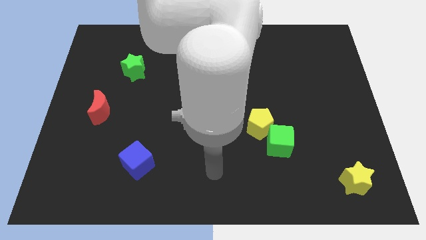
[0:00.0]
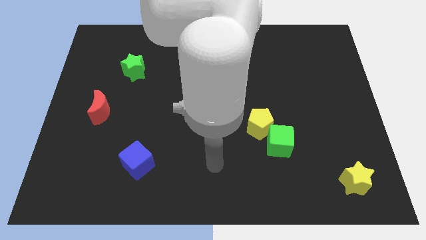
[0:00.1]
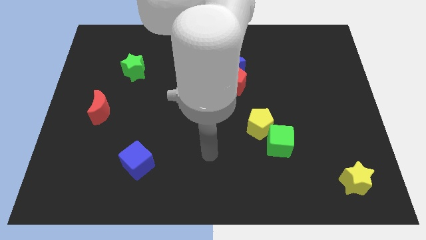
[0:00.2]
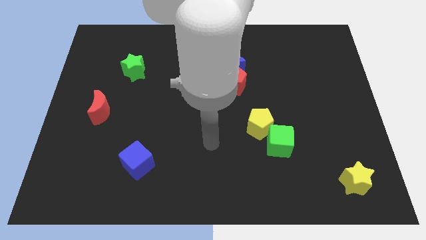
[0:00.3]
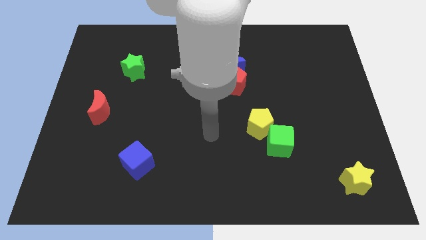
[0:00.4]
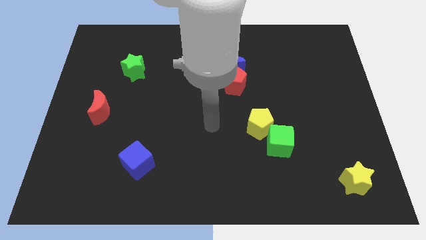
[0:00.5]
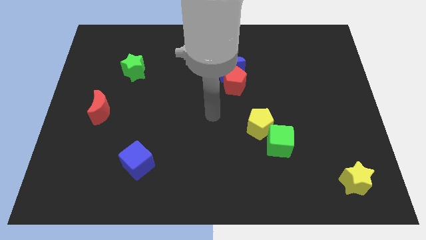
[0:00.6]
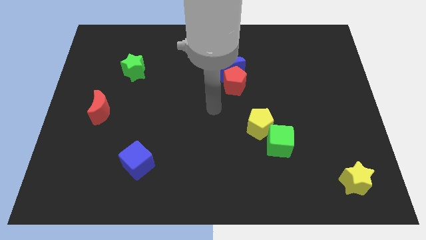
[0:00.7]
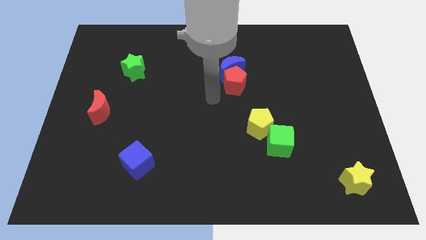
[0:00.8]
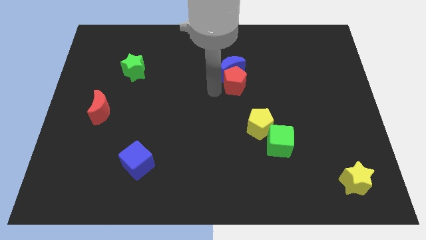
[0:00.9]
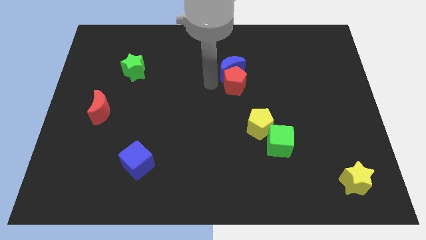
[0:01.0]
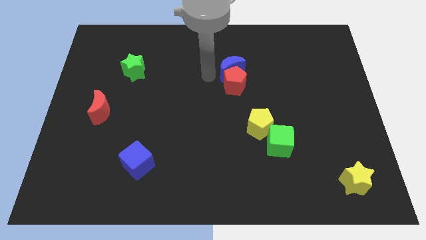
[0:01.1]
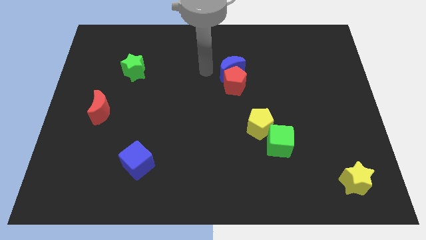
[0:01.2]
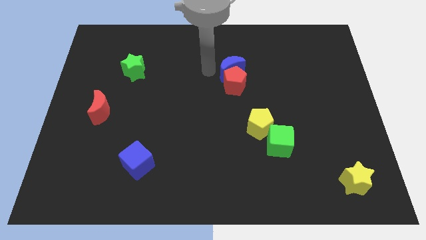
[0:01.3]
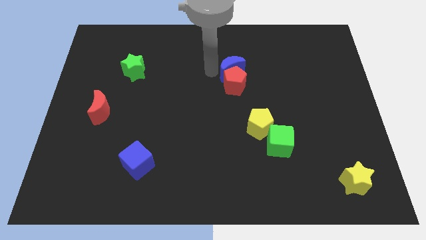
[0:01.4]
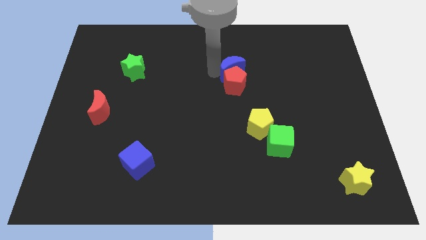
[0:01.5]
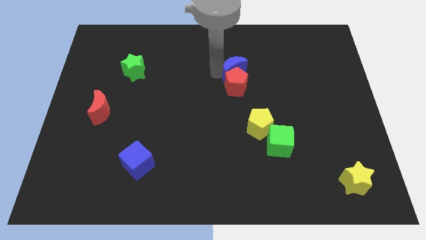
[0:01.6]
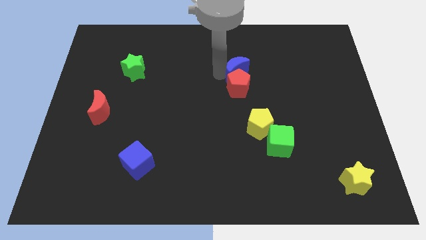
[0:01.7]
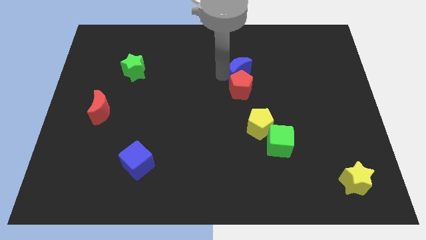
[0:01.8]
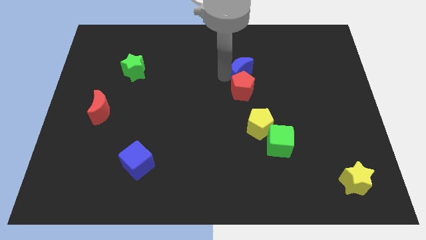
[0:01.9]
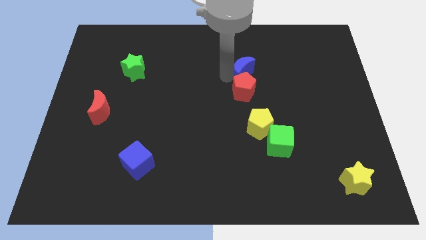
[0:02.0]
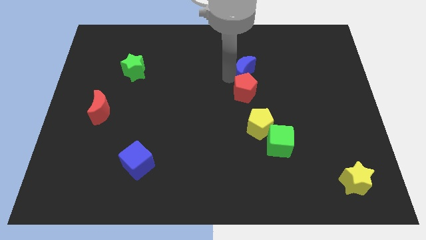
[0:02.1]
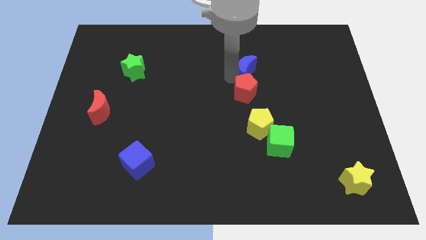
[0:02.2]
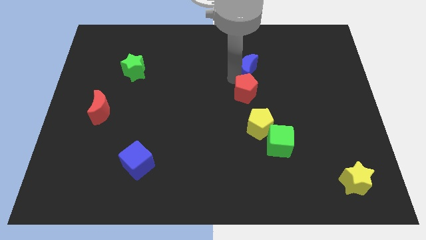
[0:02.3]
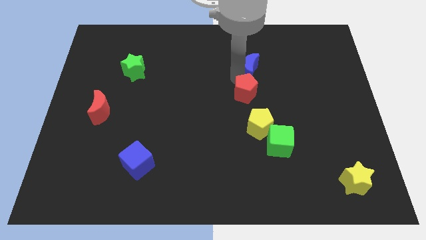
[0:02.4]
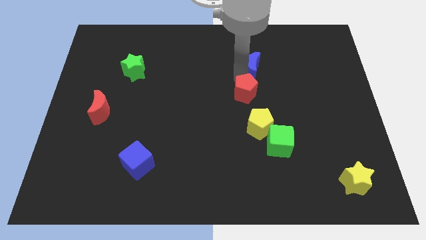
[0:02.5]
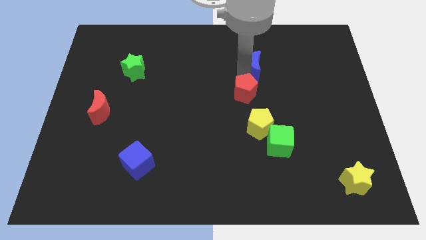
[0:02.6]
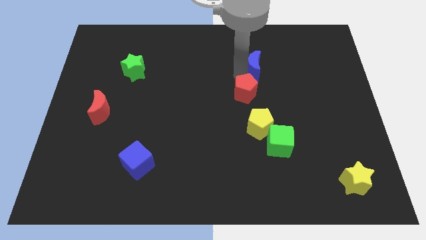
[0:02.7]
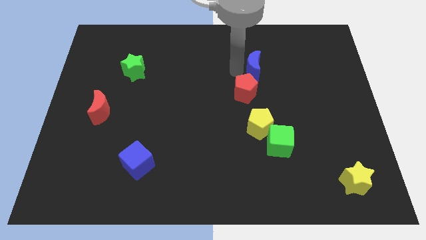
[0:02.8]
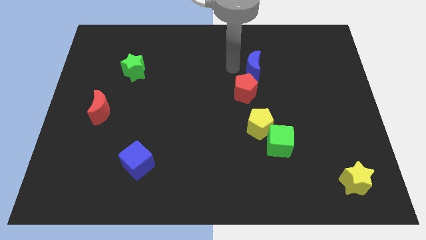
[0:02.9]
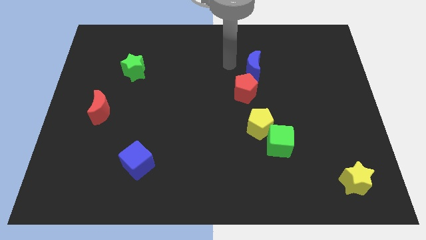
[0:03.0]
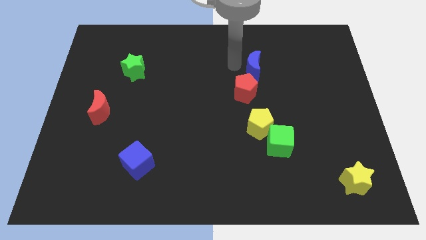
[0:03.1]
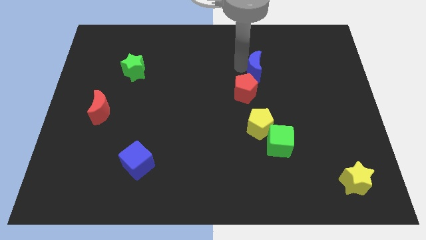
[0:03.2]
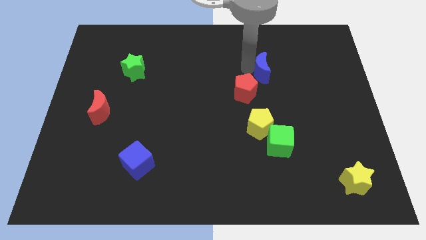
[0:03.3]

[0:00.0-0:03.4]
slightly move the blue moon right

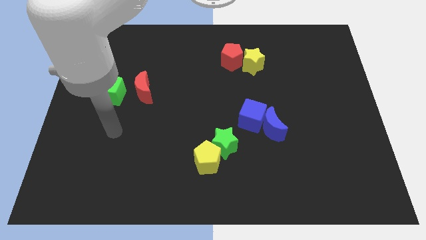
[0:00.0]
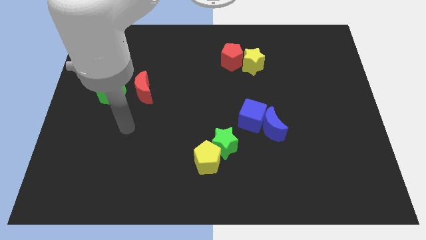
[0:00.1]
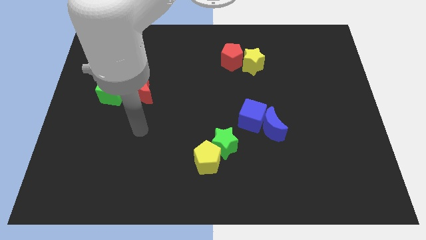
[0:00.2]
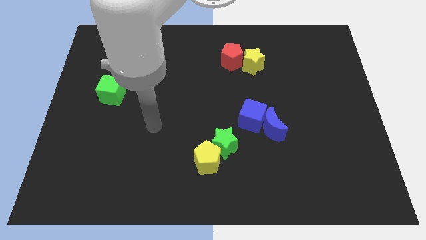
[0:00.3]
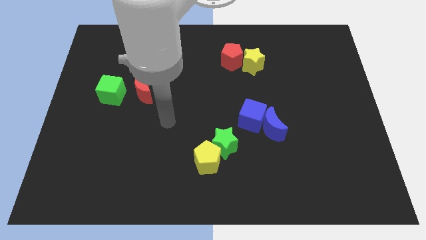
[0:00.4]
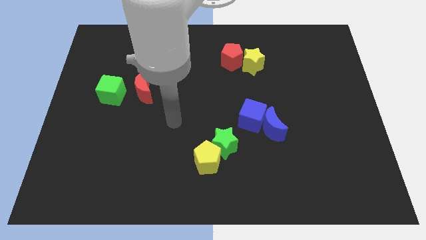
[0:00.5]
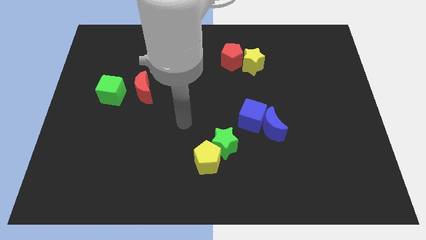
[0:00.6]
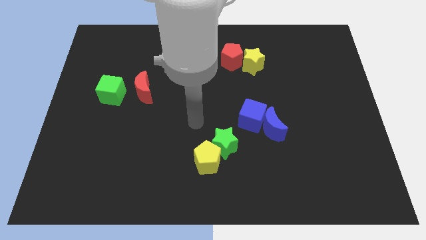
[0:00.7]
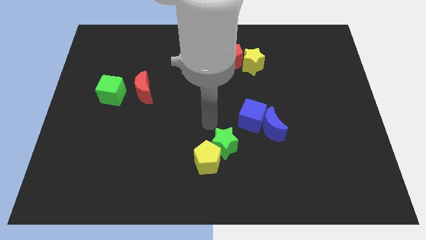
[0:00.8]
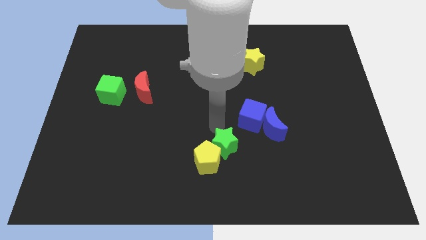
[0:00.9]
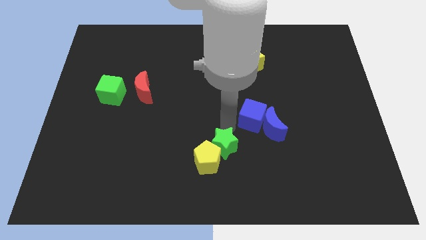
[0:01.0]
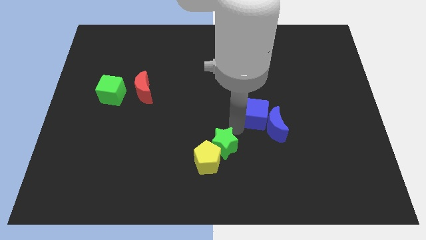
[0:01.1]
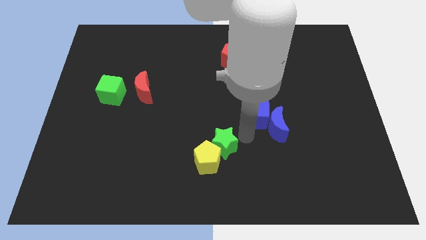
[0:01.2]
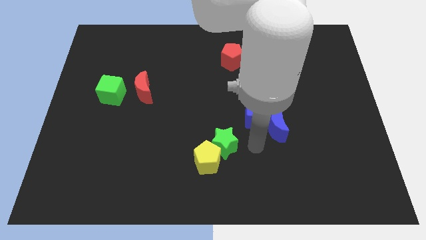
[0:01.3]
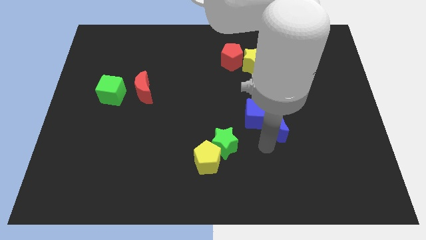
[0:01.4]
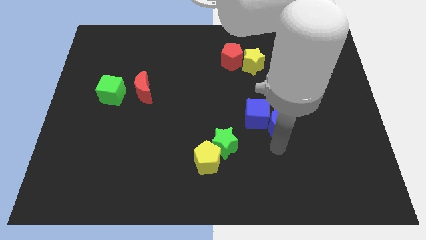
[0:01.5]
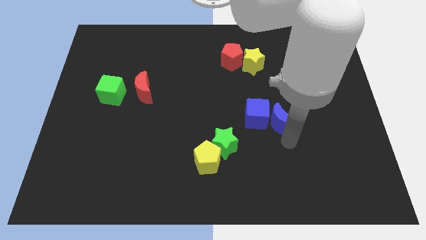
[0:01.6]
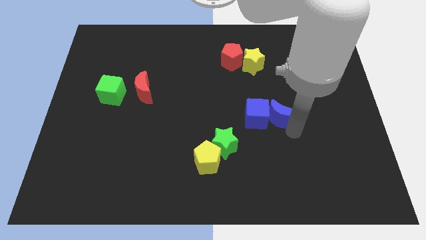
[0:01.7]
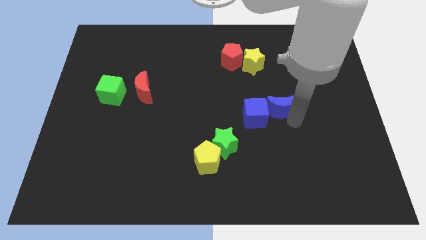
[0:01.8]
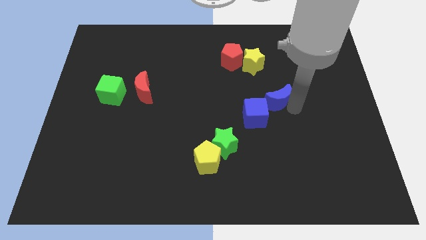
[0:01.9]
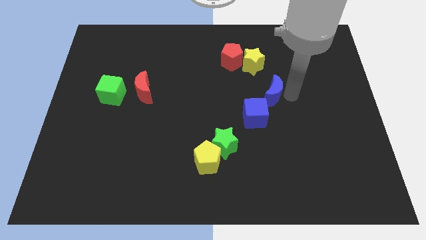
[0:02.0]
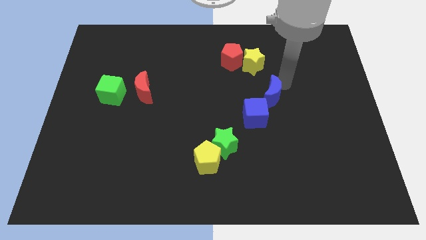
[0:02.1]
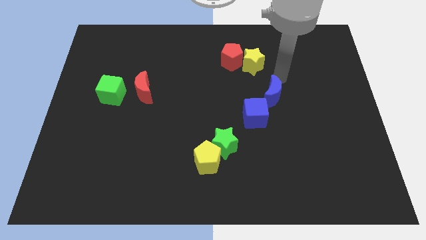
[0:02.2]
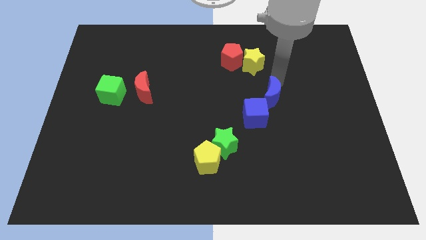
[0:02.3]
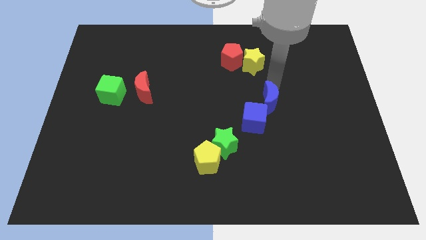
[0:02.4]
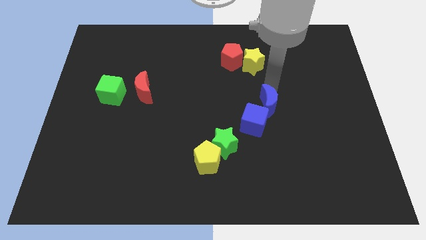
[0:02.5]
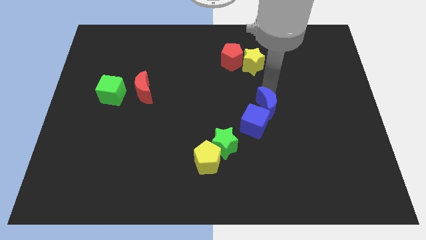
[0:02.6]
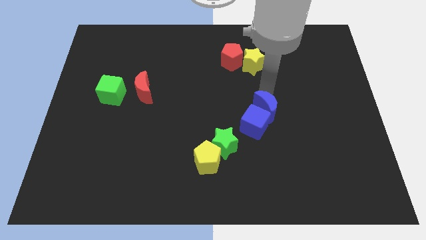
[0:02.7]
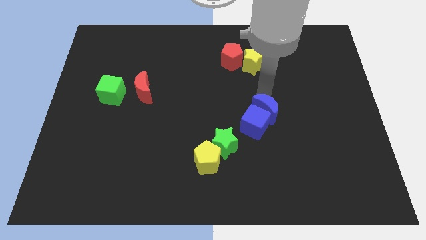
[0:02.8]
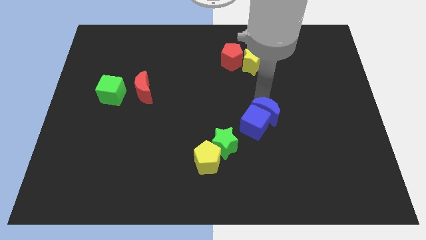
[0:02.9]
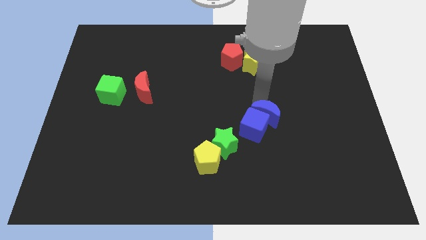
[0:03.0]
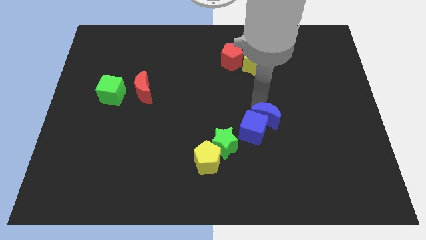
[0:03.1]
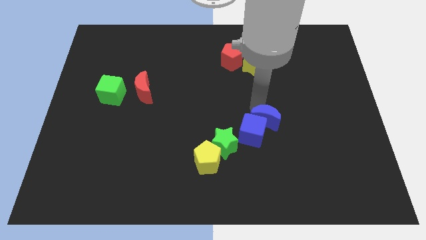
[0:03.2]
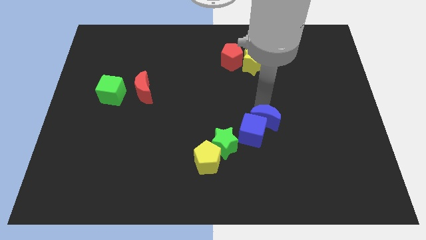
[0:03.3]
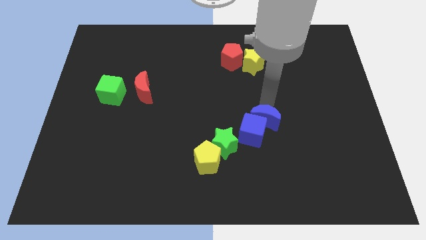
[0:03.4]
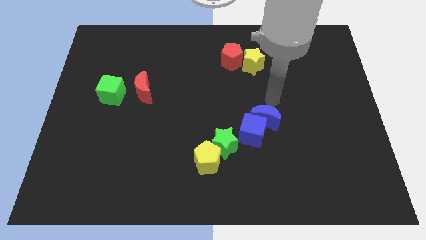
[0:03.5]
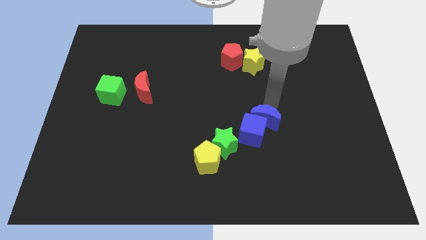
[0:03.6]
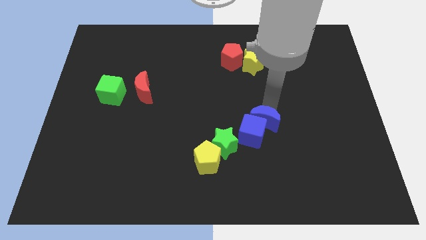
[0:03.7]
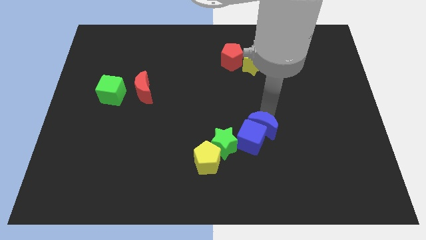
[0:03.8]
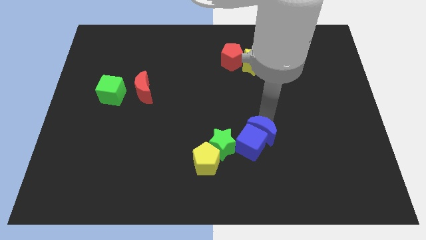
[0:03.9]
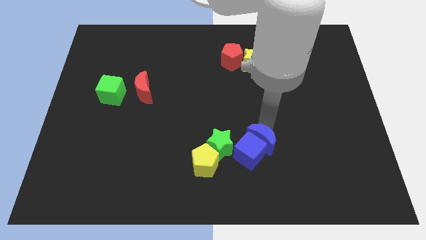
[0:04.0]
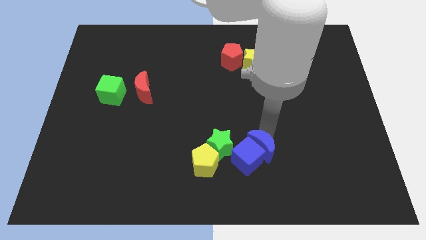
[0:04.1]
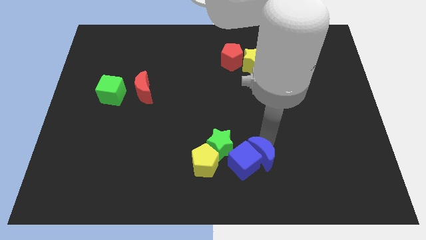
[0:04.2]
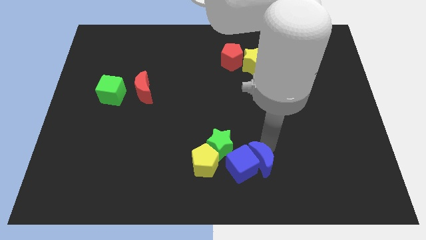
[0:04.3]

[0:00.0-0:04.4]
slightly move the blue moon downwards and then left
